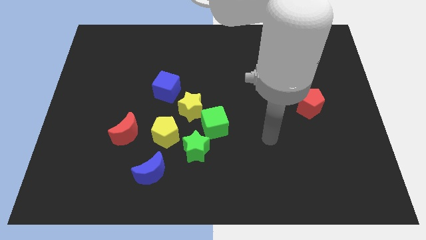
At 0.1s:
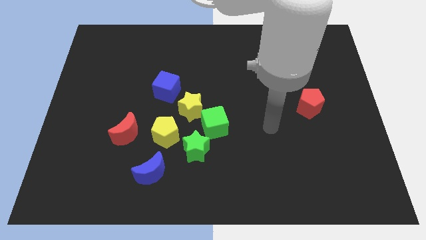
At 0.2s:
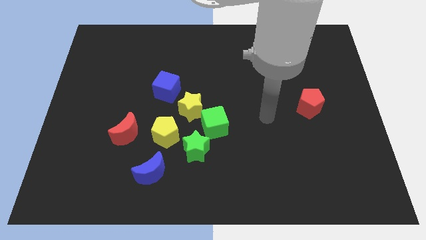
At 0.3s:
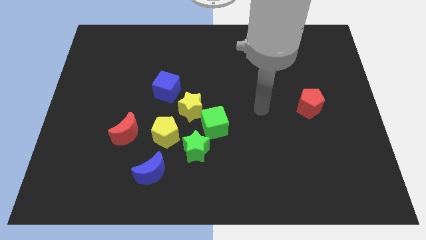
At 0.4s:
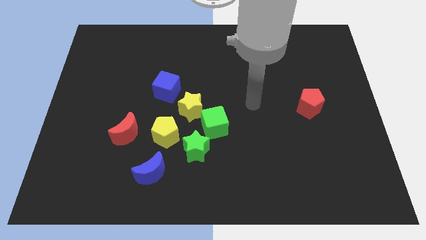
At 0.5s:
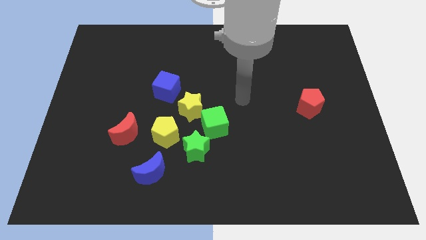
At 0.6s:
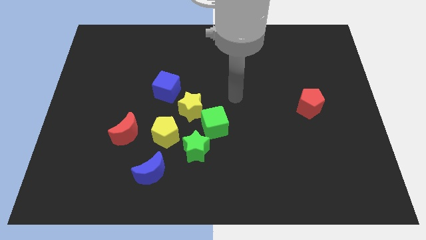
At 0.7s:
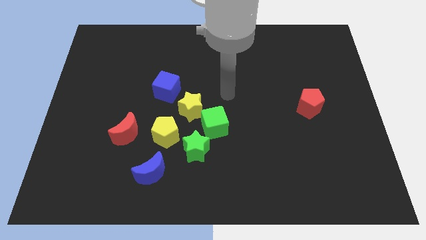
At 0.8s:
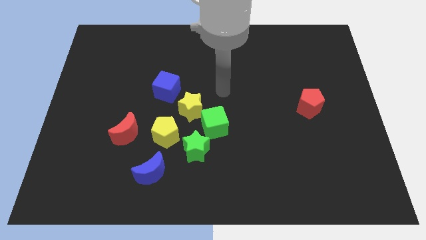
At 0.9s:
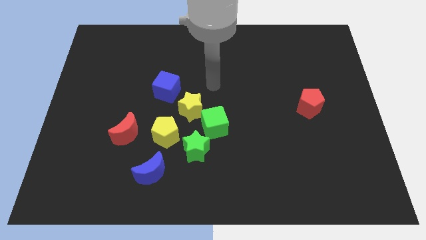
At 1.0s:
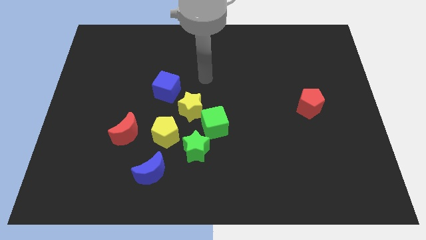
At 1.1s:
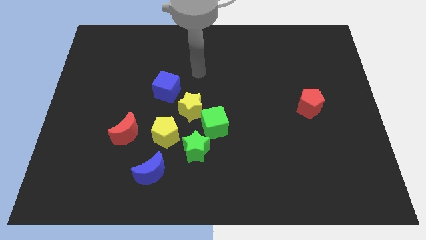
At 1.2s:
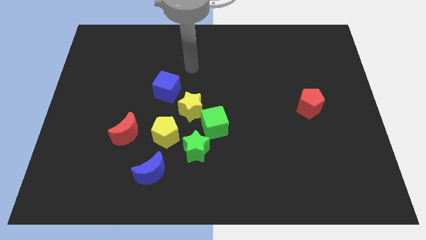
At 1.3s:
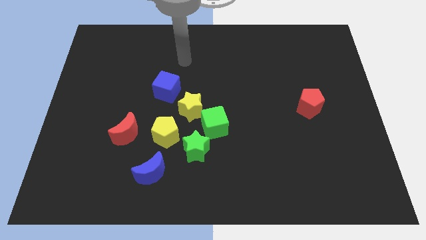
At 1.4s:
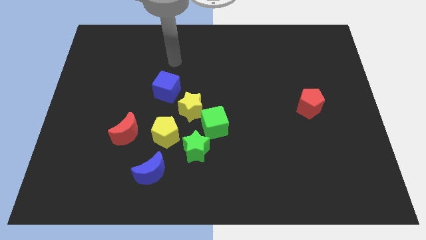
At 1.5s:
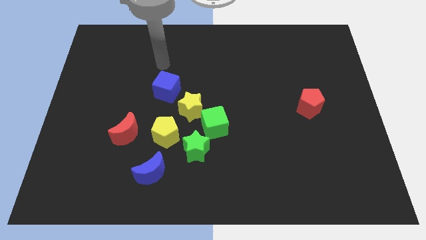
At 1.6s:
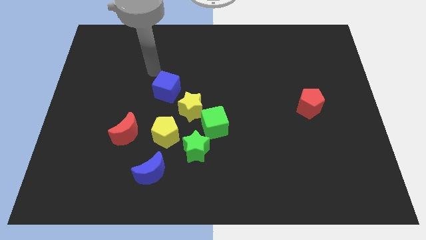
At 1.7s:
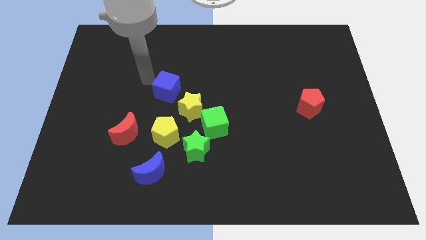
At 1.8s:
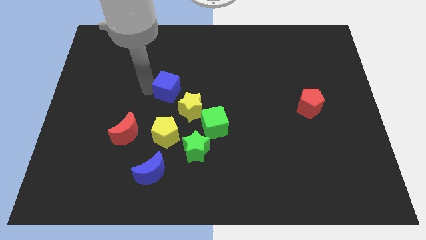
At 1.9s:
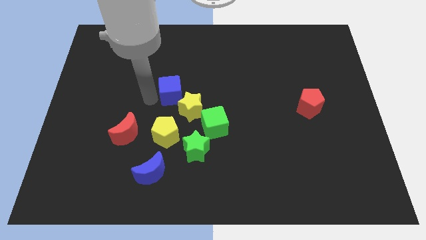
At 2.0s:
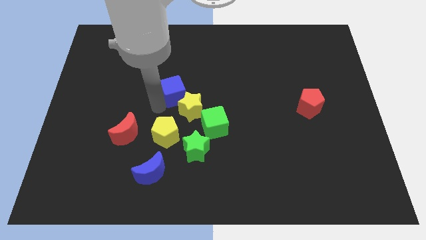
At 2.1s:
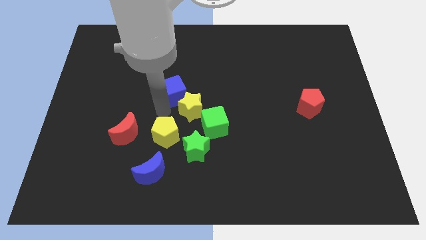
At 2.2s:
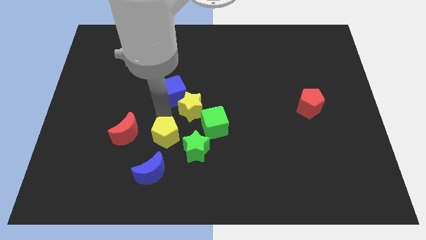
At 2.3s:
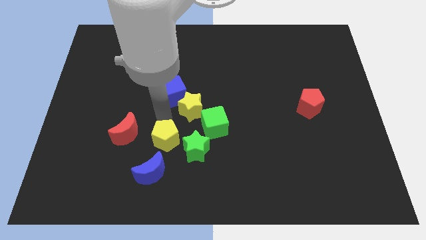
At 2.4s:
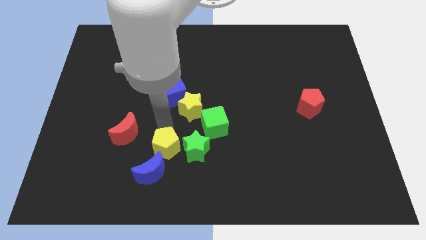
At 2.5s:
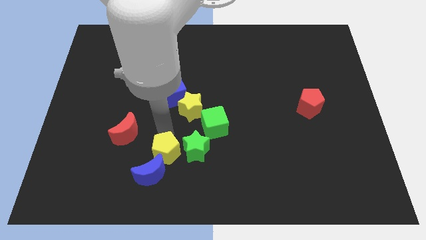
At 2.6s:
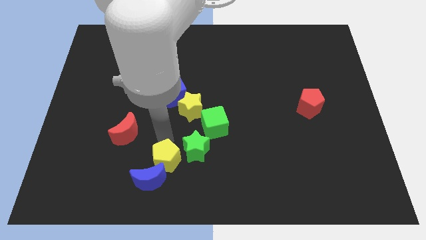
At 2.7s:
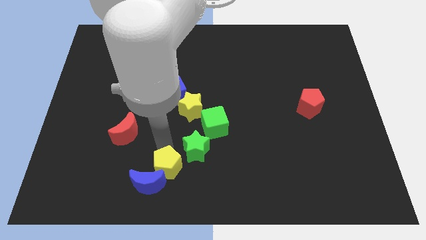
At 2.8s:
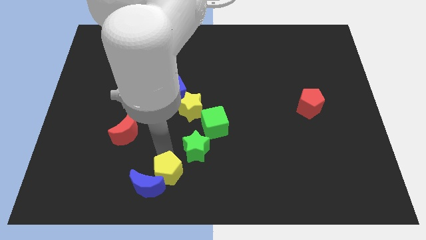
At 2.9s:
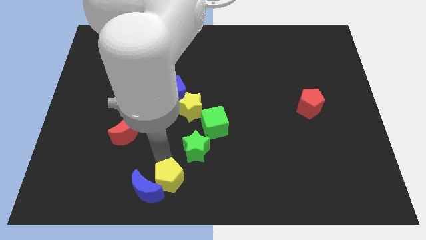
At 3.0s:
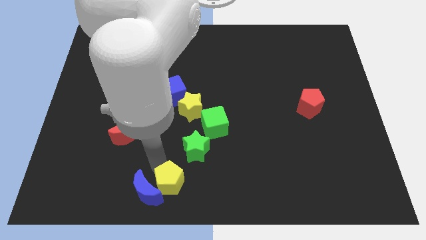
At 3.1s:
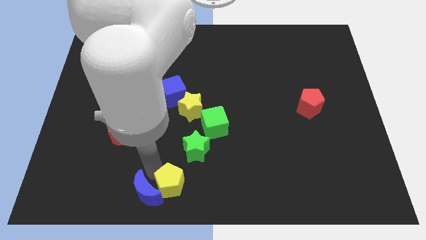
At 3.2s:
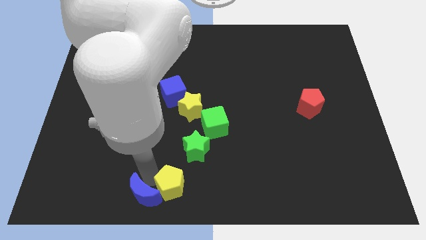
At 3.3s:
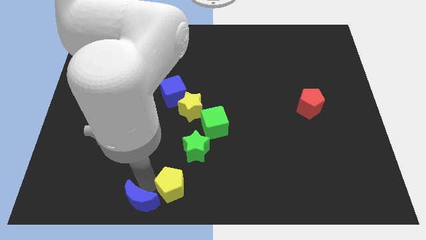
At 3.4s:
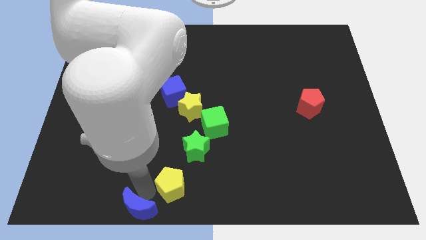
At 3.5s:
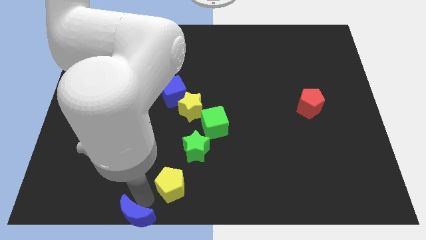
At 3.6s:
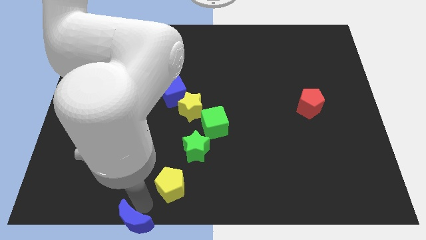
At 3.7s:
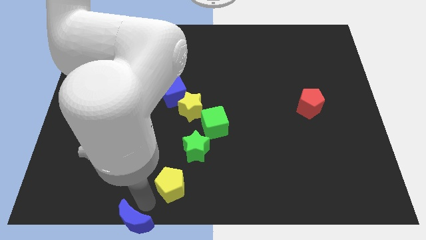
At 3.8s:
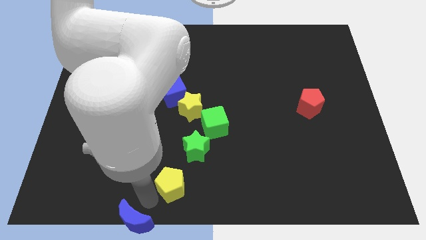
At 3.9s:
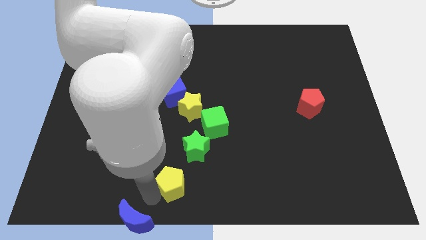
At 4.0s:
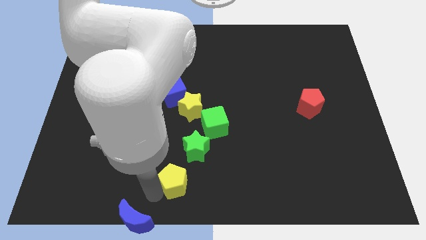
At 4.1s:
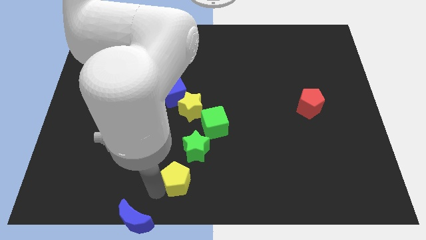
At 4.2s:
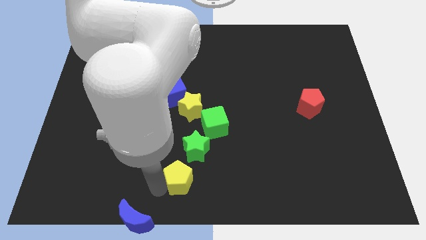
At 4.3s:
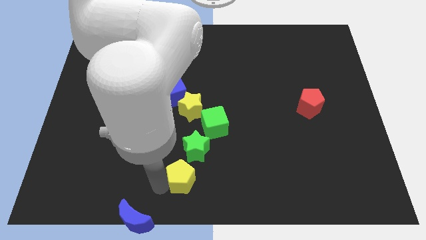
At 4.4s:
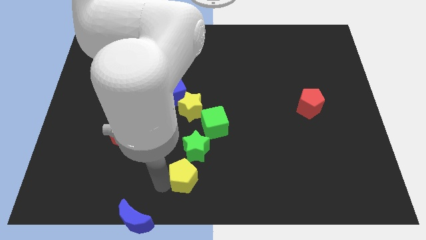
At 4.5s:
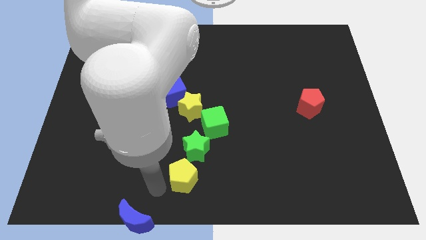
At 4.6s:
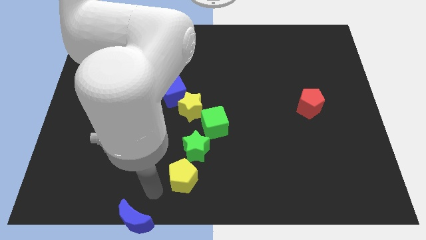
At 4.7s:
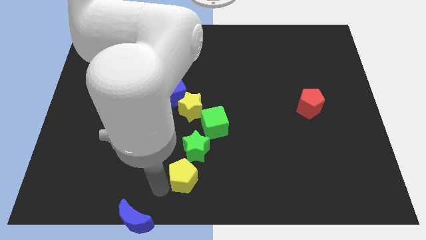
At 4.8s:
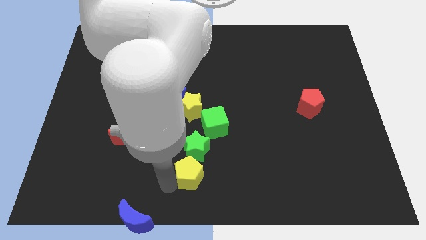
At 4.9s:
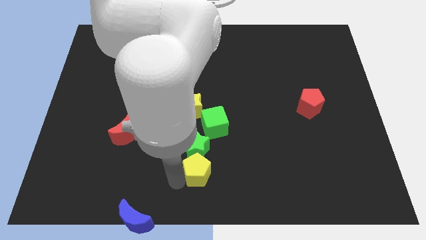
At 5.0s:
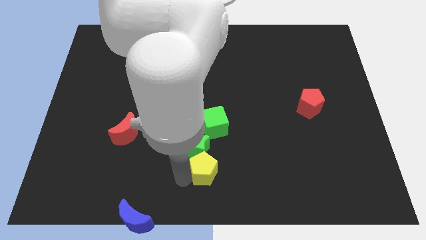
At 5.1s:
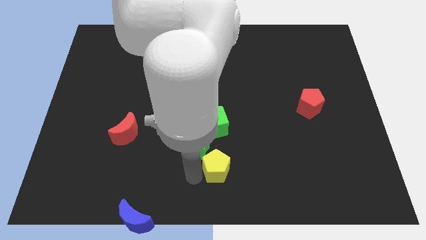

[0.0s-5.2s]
push the yellow pentagon right somewhat

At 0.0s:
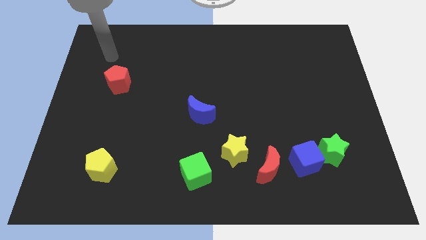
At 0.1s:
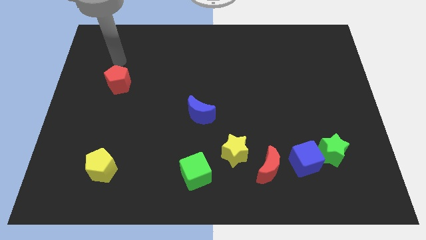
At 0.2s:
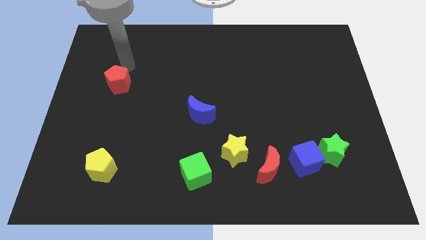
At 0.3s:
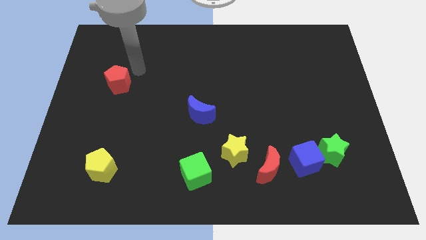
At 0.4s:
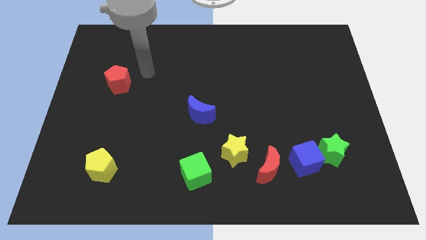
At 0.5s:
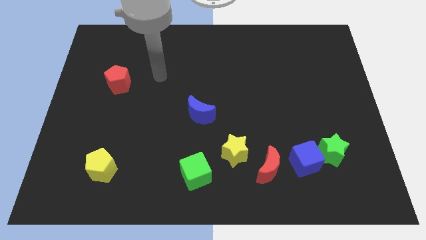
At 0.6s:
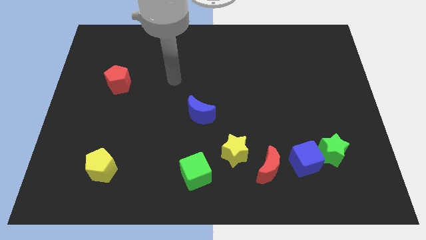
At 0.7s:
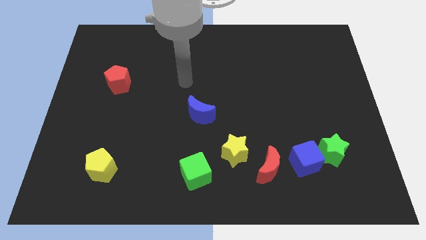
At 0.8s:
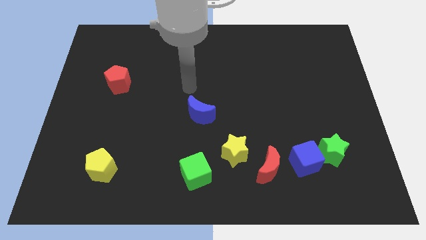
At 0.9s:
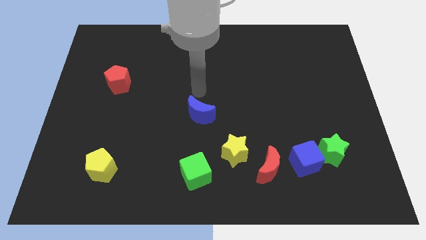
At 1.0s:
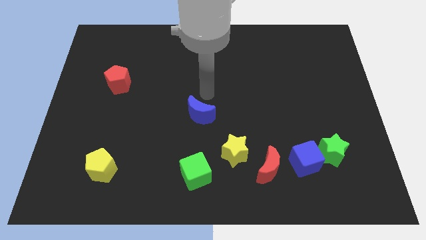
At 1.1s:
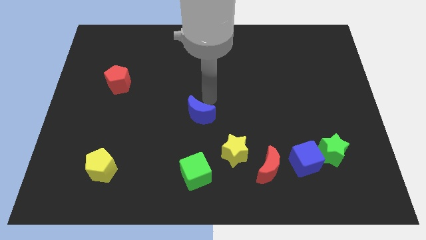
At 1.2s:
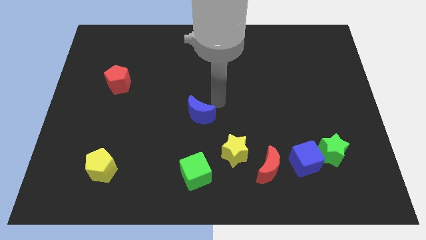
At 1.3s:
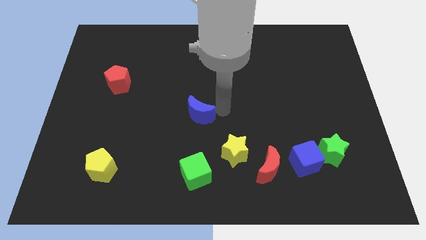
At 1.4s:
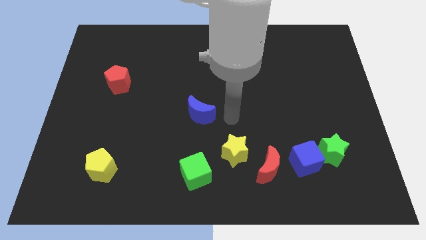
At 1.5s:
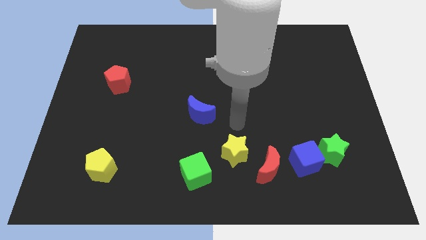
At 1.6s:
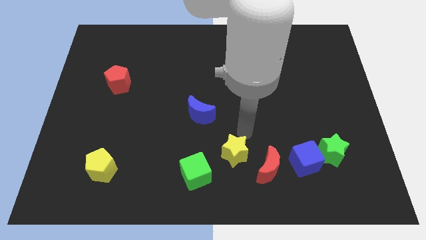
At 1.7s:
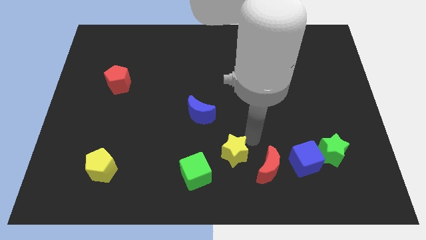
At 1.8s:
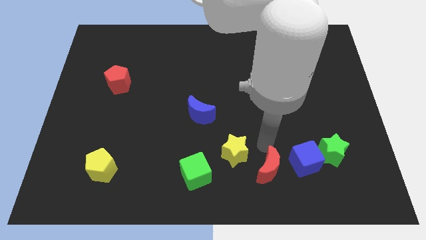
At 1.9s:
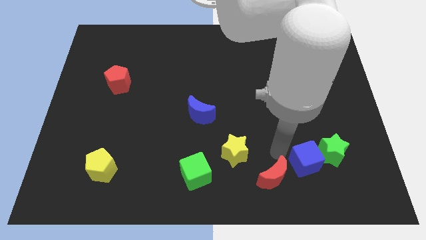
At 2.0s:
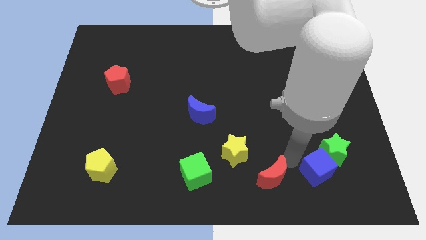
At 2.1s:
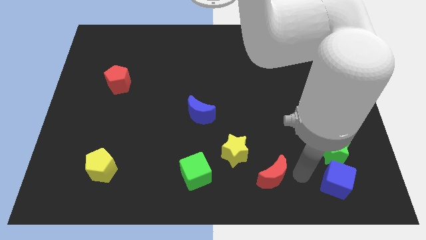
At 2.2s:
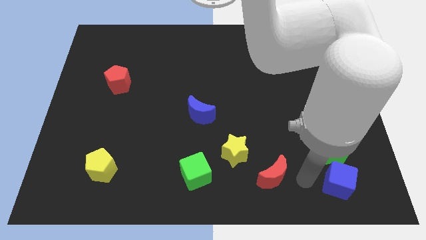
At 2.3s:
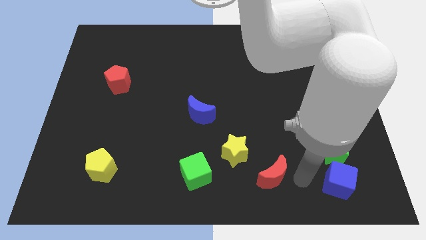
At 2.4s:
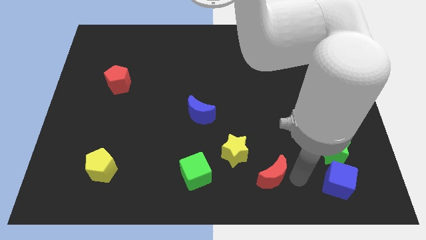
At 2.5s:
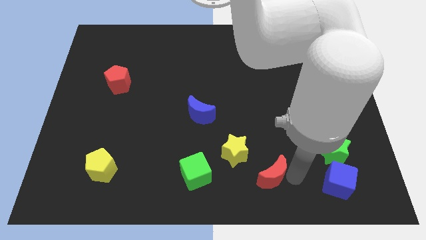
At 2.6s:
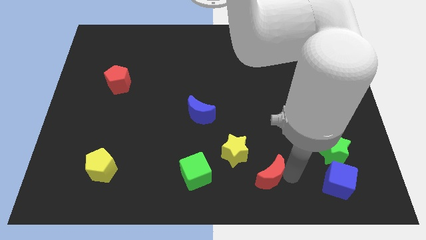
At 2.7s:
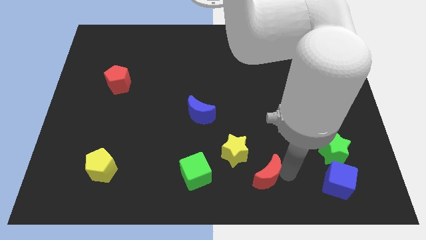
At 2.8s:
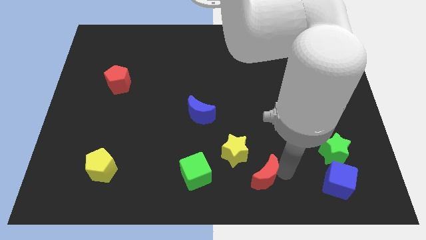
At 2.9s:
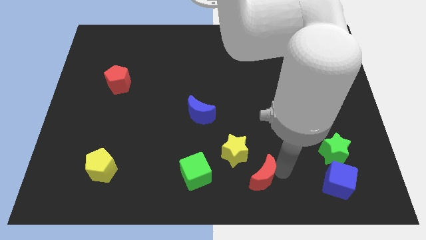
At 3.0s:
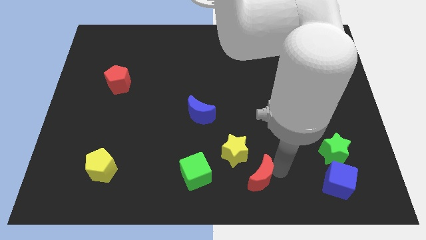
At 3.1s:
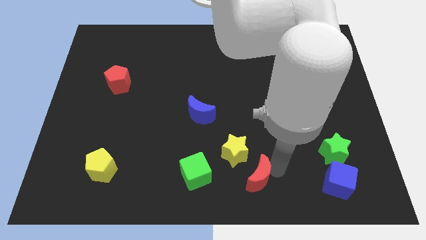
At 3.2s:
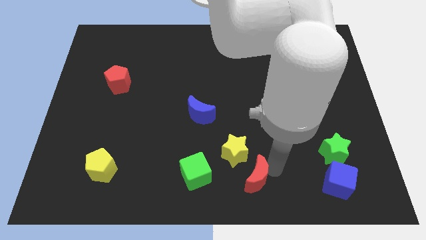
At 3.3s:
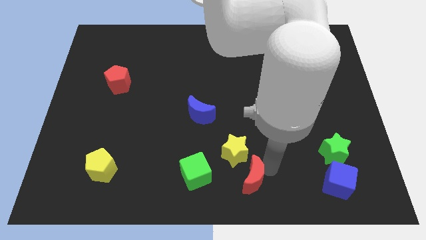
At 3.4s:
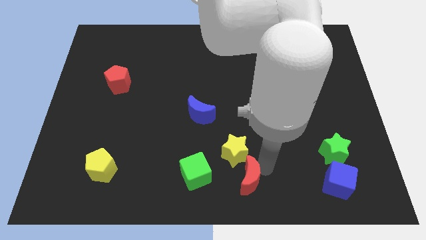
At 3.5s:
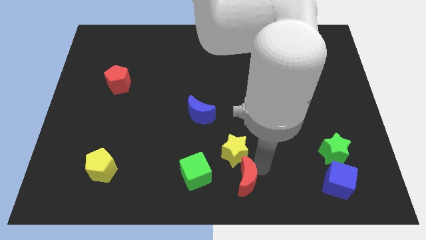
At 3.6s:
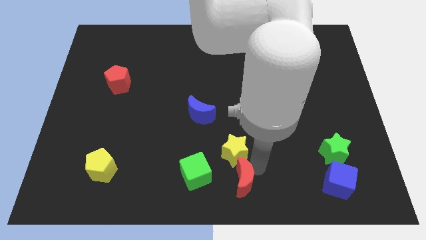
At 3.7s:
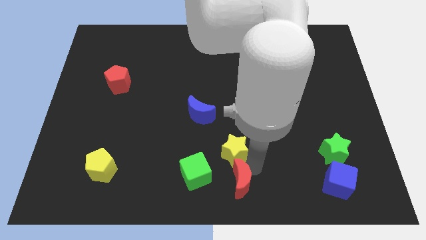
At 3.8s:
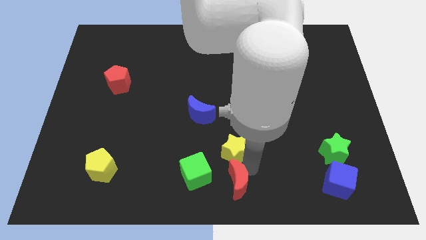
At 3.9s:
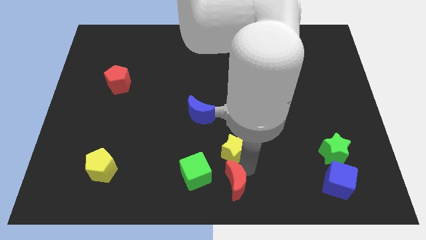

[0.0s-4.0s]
move the red moon a little bit to the left
